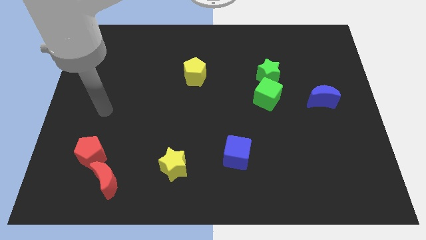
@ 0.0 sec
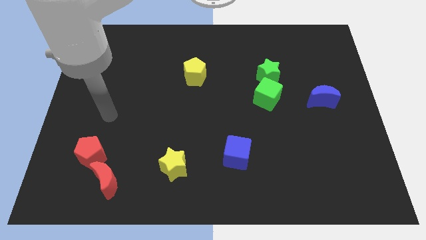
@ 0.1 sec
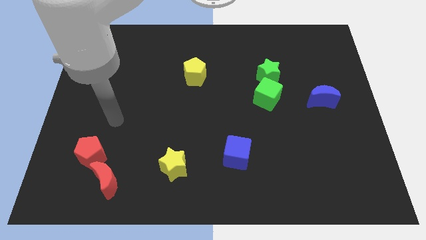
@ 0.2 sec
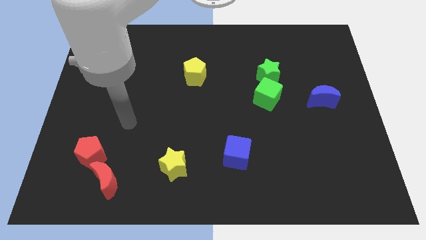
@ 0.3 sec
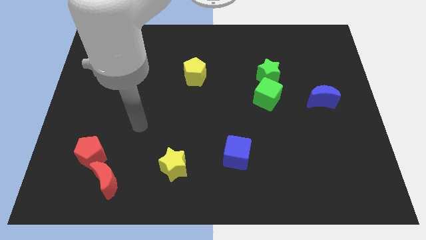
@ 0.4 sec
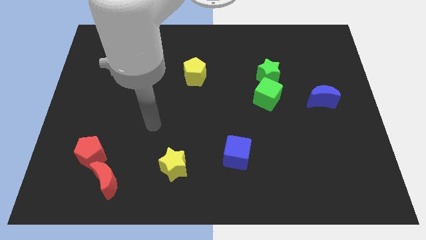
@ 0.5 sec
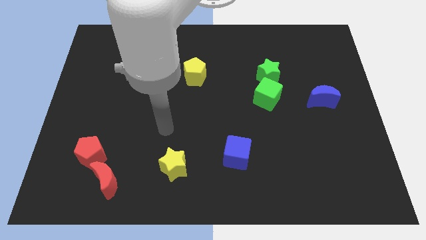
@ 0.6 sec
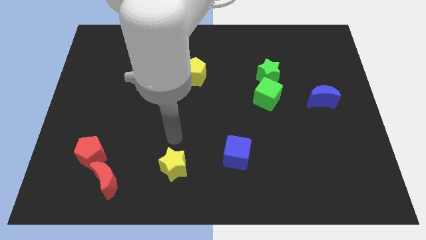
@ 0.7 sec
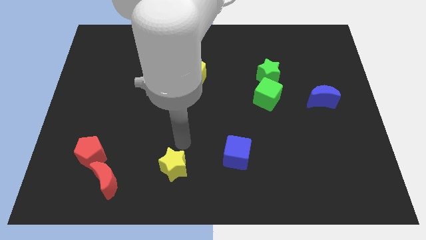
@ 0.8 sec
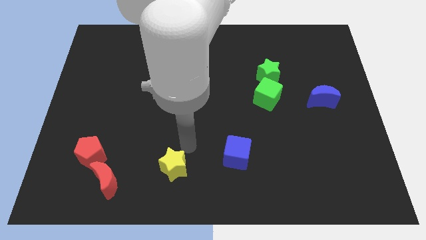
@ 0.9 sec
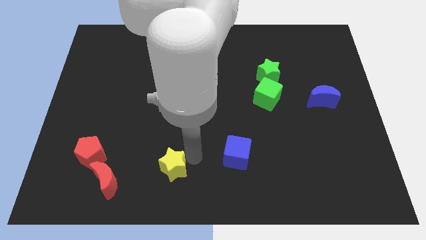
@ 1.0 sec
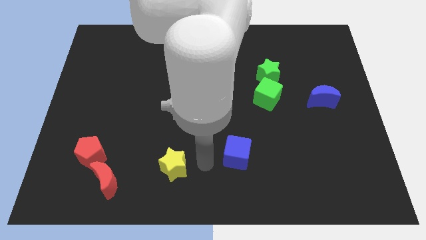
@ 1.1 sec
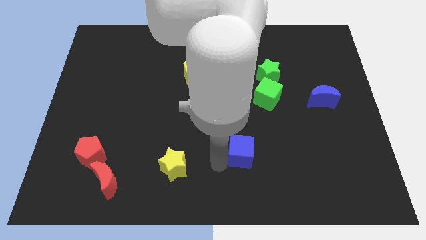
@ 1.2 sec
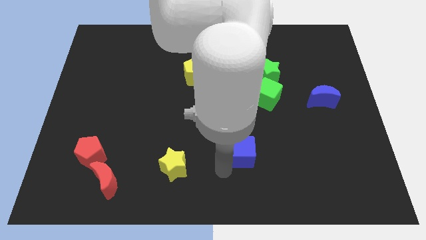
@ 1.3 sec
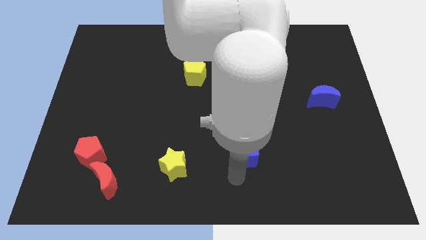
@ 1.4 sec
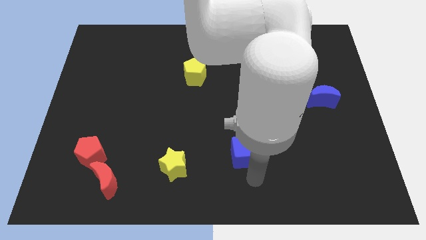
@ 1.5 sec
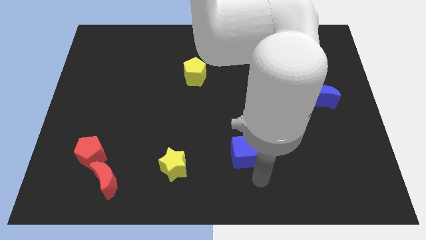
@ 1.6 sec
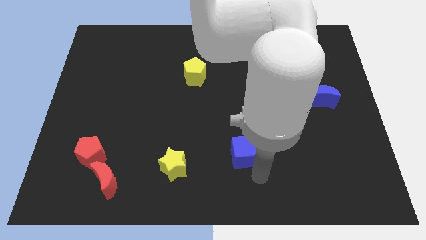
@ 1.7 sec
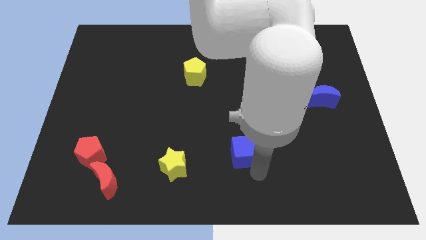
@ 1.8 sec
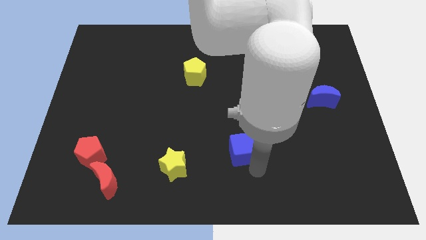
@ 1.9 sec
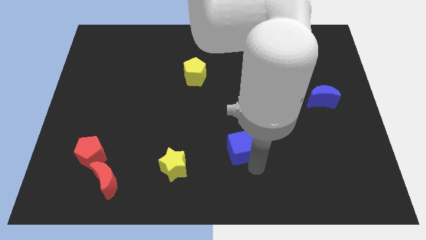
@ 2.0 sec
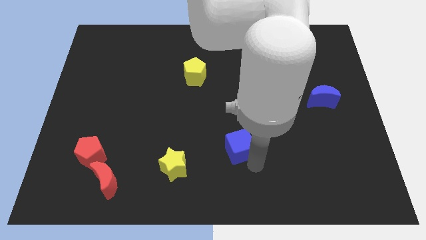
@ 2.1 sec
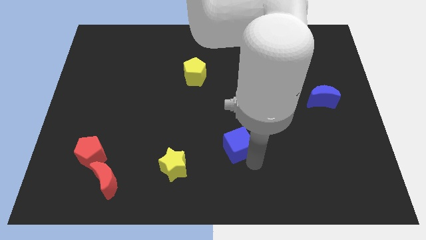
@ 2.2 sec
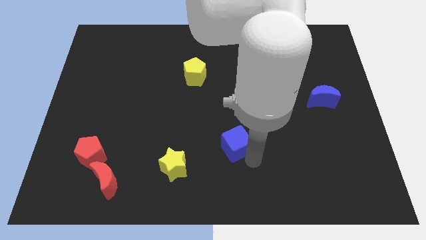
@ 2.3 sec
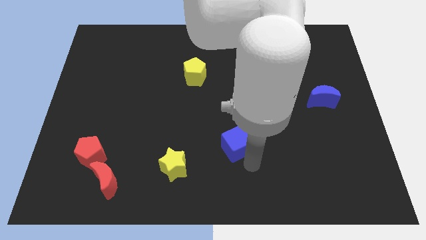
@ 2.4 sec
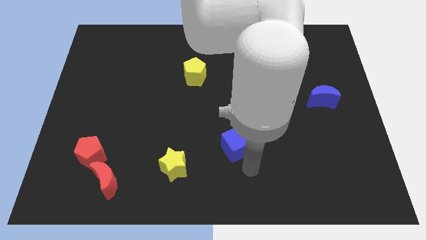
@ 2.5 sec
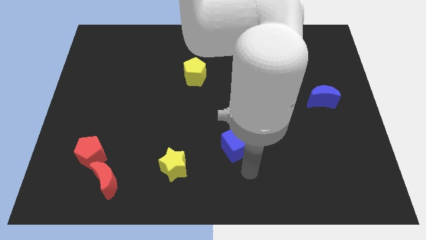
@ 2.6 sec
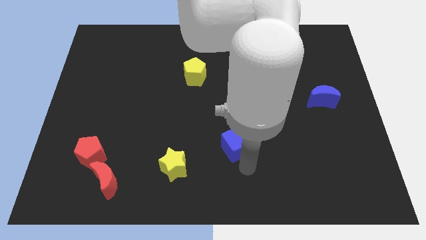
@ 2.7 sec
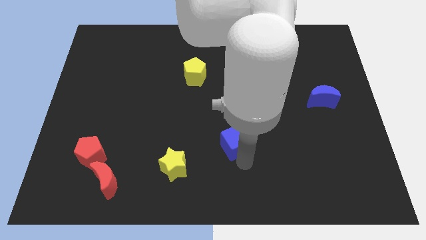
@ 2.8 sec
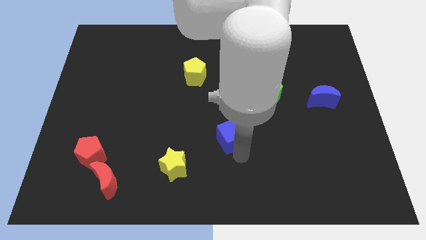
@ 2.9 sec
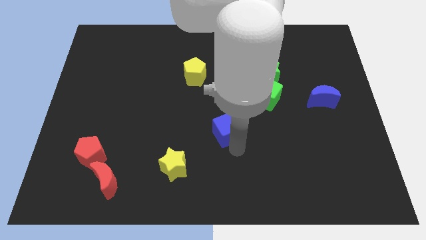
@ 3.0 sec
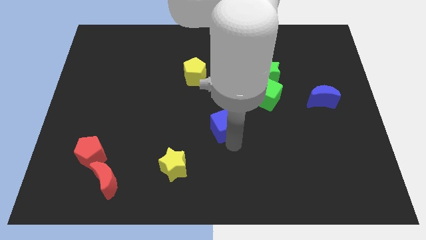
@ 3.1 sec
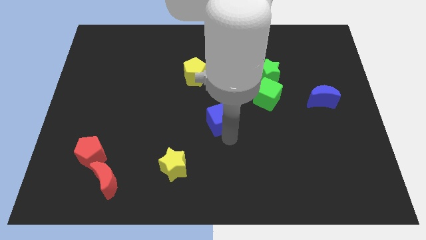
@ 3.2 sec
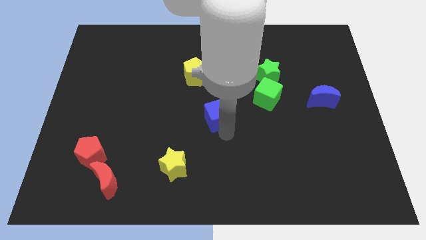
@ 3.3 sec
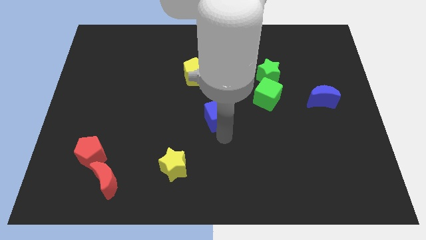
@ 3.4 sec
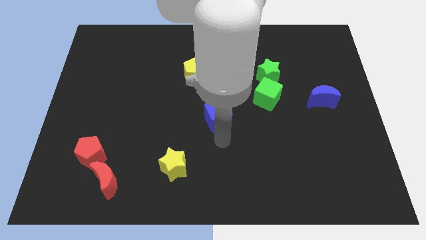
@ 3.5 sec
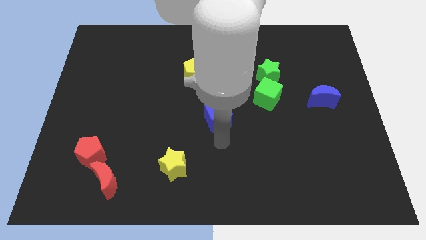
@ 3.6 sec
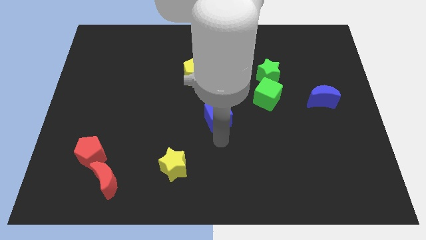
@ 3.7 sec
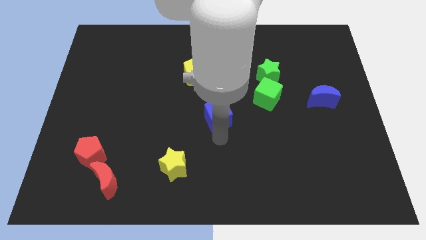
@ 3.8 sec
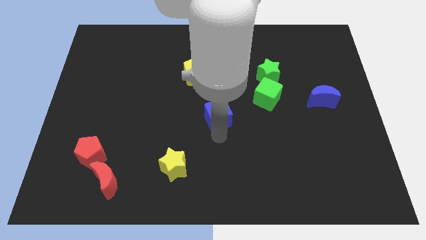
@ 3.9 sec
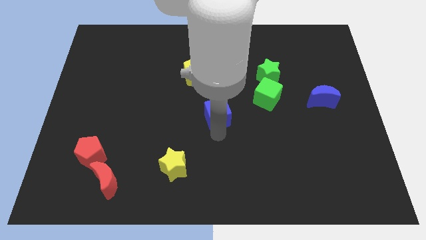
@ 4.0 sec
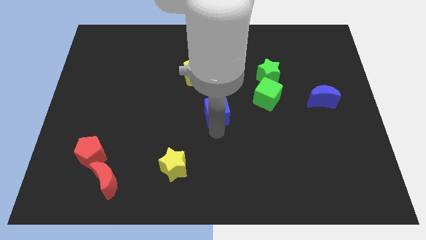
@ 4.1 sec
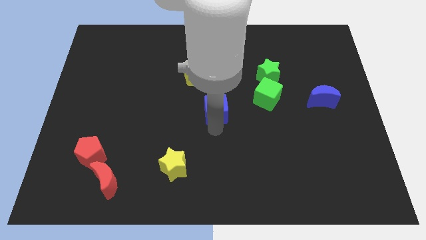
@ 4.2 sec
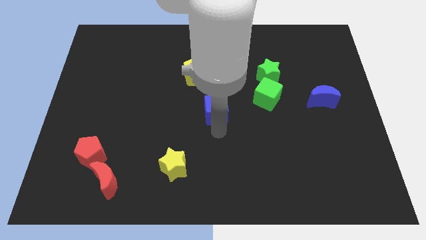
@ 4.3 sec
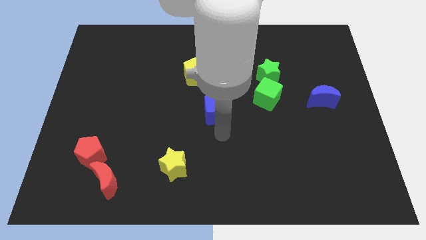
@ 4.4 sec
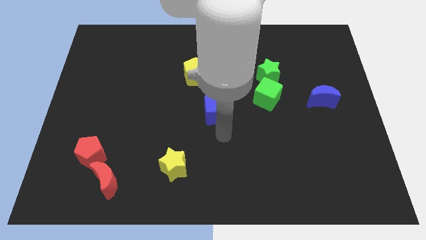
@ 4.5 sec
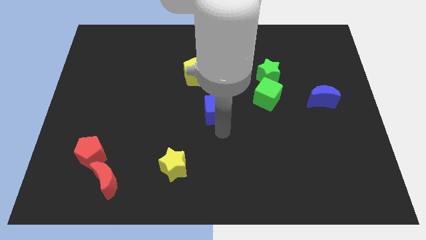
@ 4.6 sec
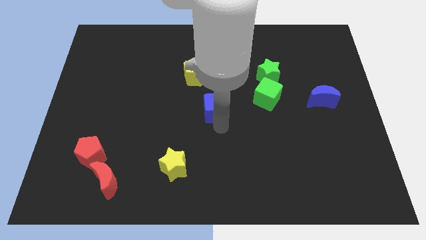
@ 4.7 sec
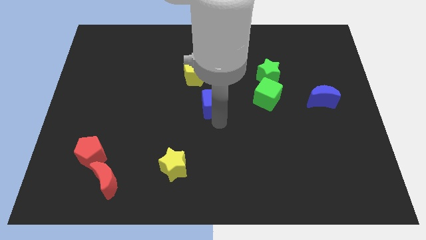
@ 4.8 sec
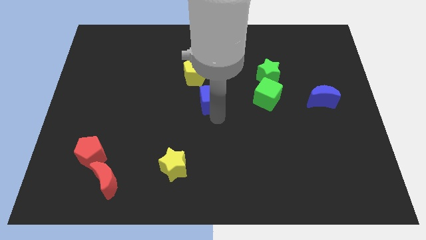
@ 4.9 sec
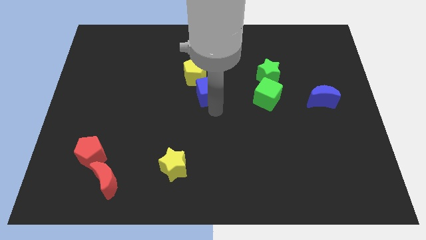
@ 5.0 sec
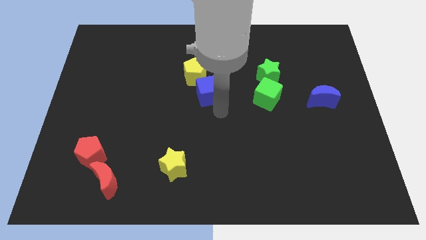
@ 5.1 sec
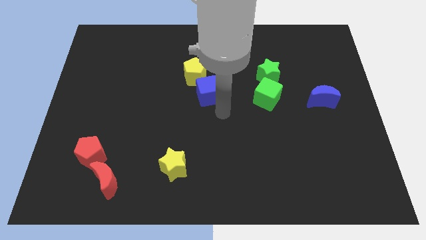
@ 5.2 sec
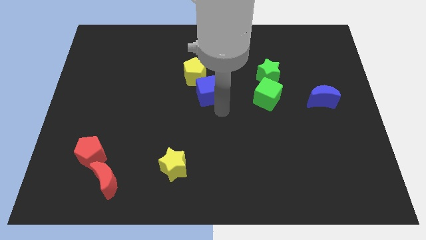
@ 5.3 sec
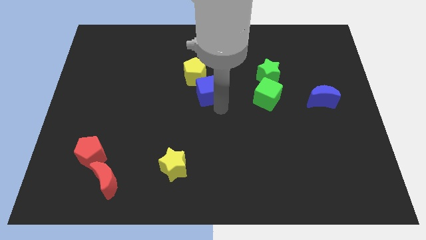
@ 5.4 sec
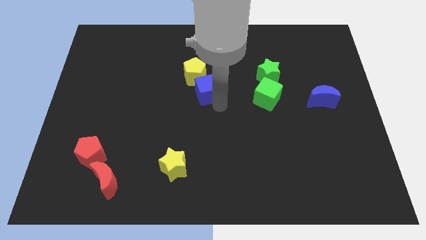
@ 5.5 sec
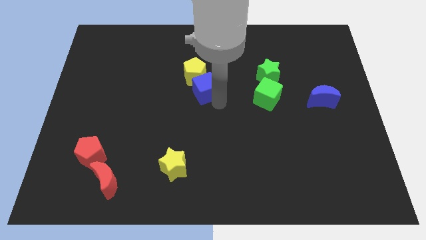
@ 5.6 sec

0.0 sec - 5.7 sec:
put the blue cube next to the yellow pentagon

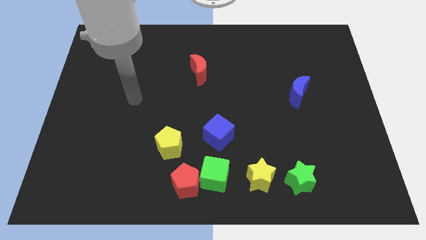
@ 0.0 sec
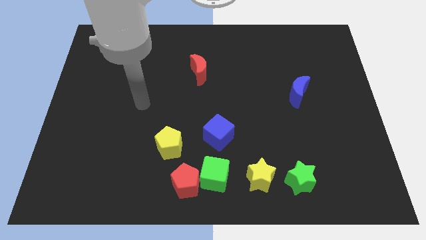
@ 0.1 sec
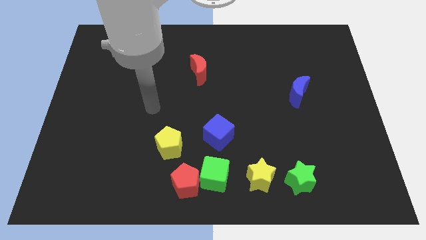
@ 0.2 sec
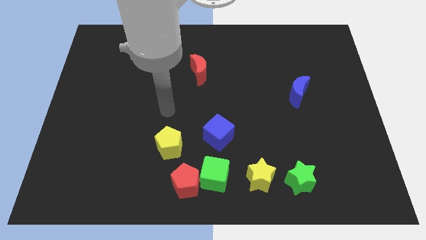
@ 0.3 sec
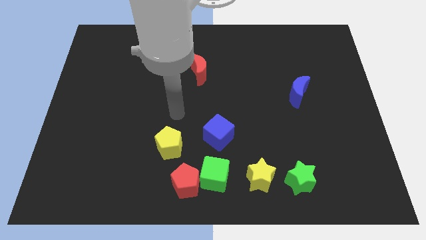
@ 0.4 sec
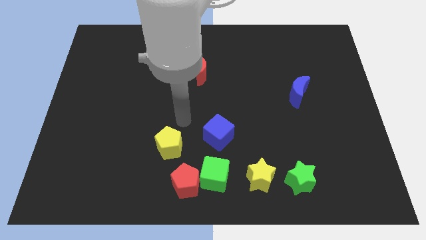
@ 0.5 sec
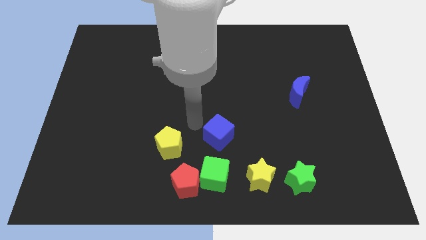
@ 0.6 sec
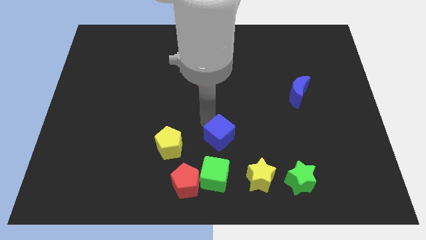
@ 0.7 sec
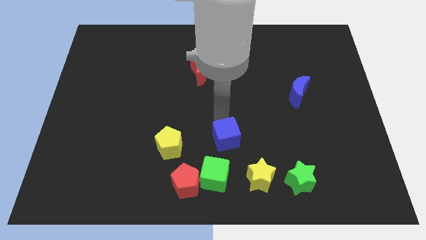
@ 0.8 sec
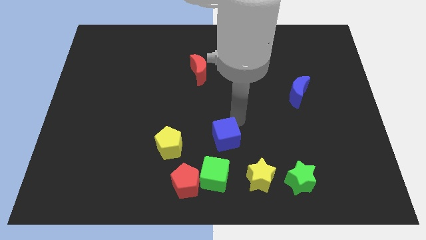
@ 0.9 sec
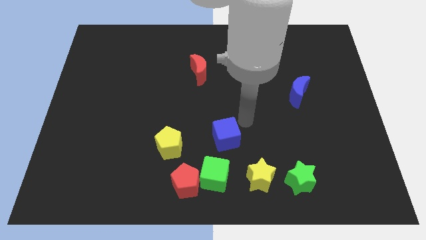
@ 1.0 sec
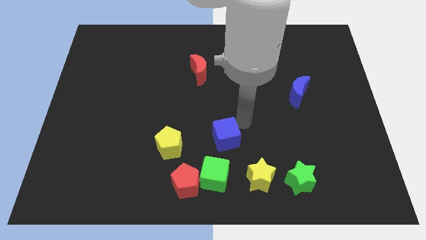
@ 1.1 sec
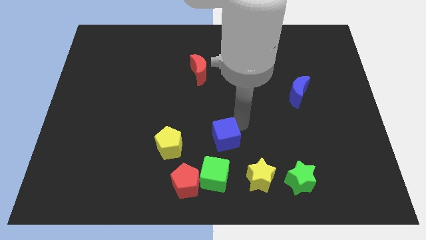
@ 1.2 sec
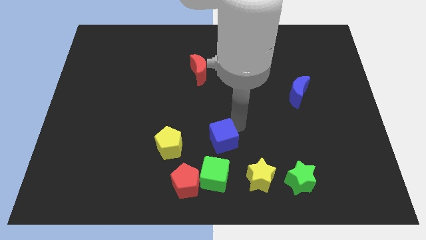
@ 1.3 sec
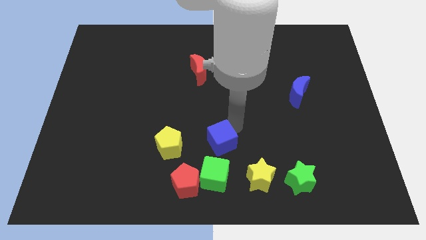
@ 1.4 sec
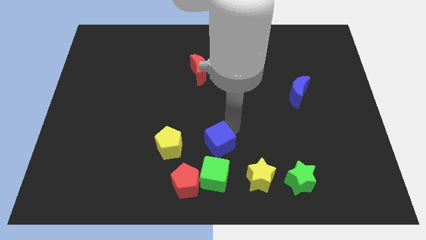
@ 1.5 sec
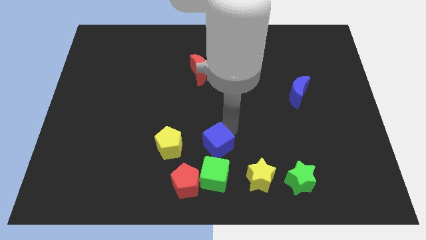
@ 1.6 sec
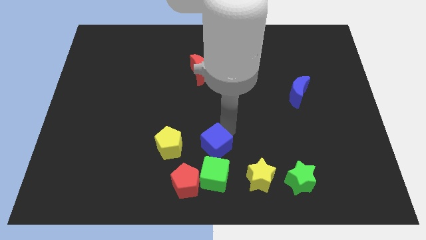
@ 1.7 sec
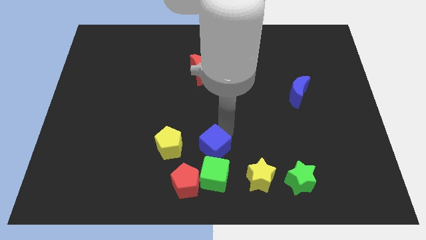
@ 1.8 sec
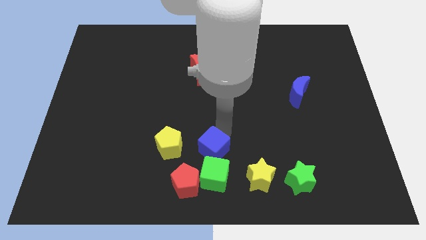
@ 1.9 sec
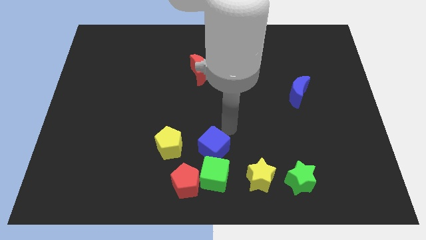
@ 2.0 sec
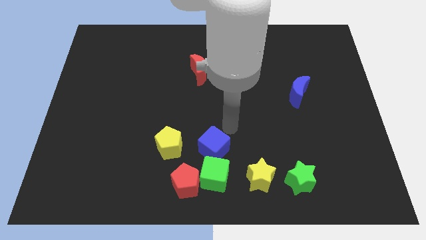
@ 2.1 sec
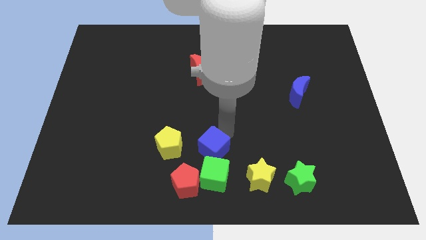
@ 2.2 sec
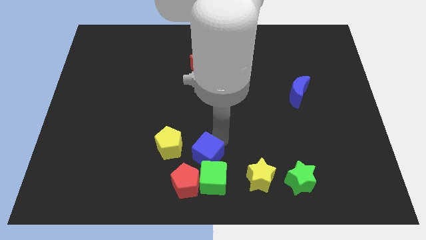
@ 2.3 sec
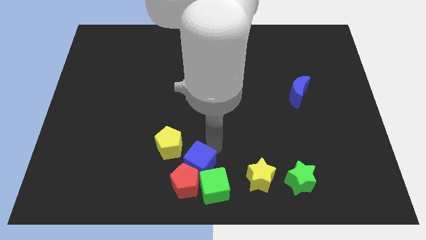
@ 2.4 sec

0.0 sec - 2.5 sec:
slide the blue cube to the red pentagon
